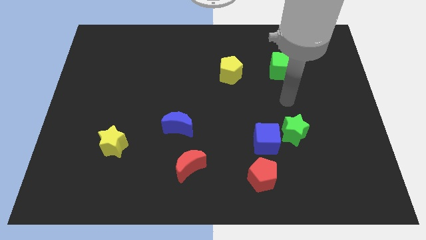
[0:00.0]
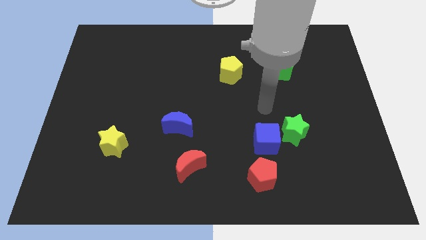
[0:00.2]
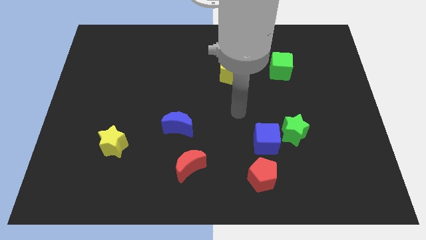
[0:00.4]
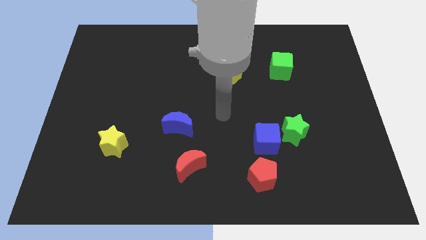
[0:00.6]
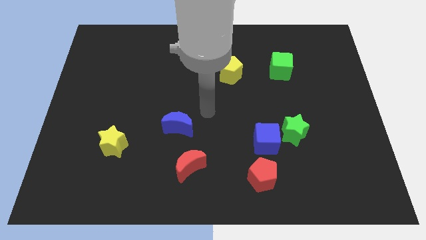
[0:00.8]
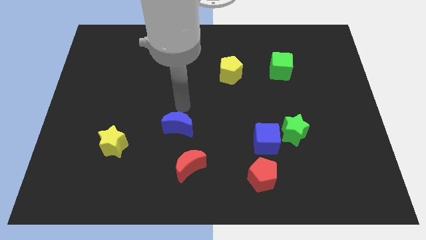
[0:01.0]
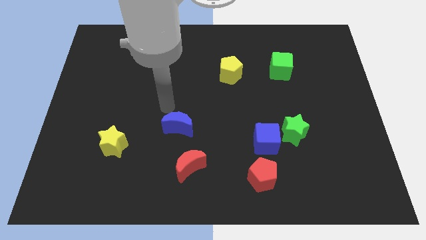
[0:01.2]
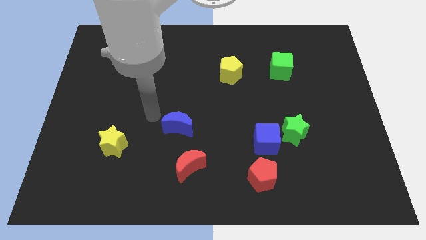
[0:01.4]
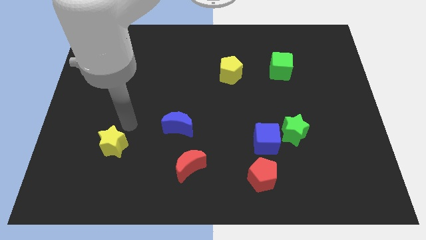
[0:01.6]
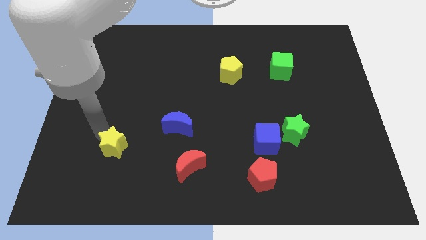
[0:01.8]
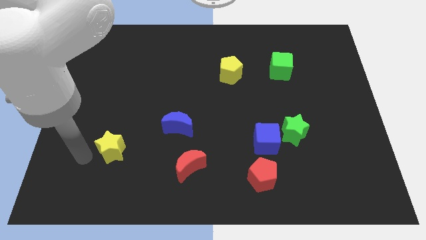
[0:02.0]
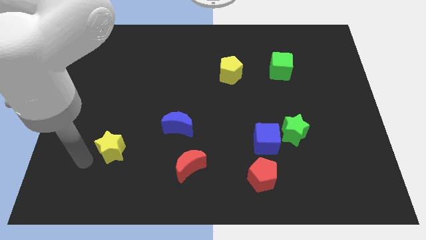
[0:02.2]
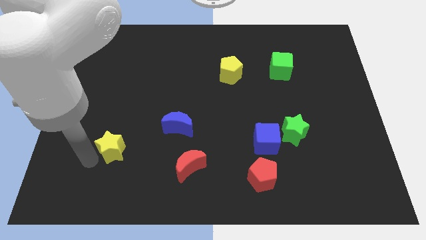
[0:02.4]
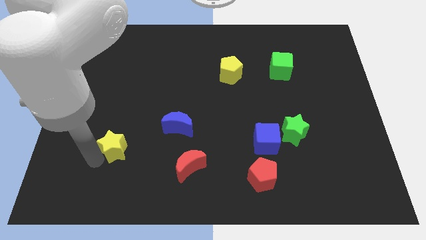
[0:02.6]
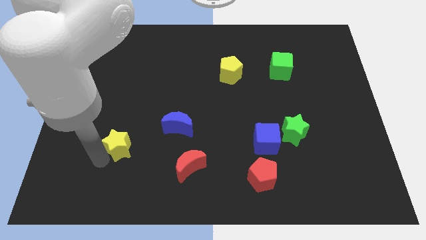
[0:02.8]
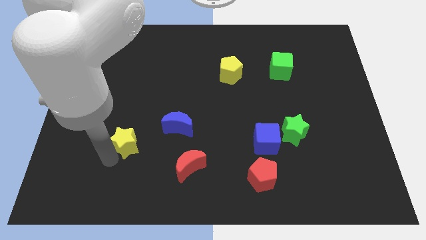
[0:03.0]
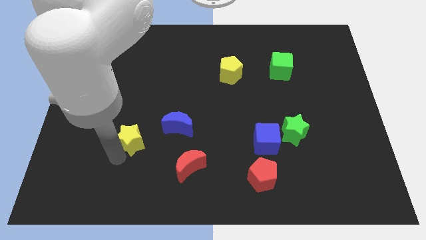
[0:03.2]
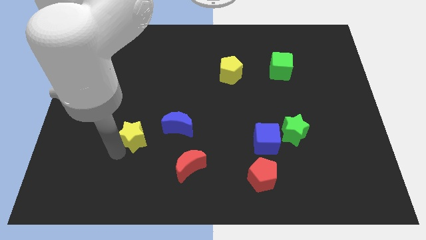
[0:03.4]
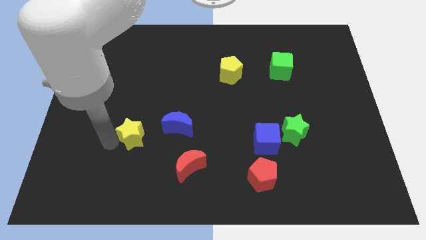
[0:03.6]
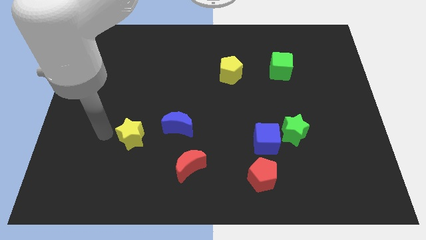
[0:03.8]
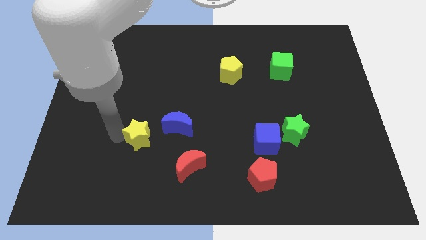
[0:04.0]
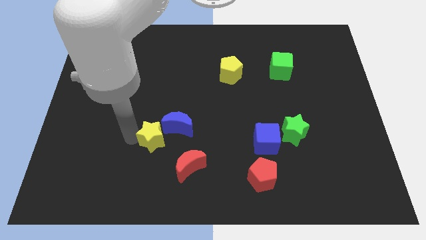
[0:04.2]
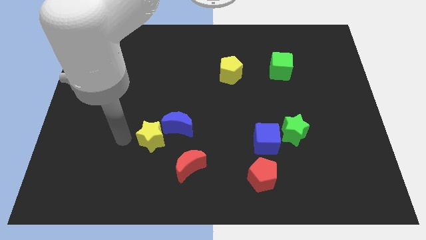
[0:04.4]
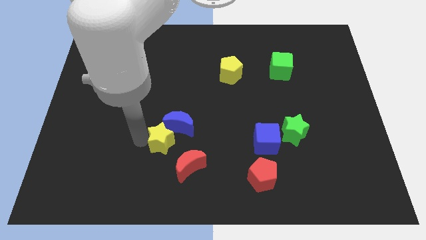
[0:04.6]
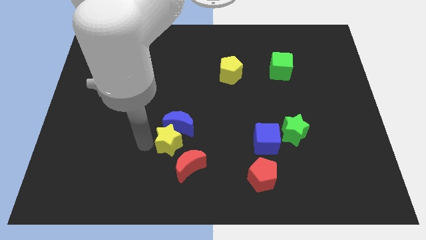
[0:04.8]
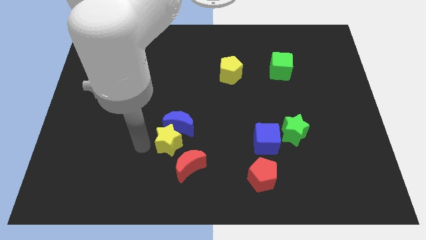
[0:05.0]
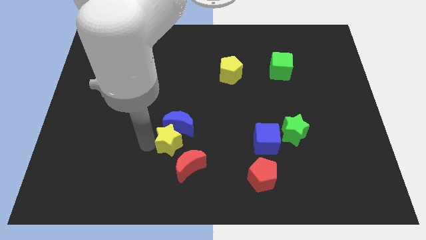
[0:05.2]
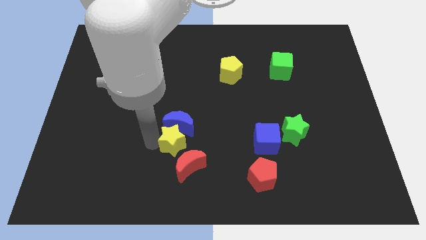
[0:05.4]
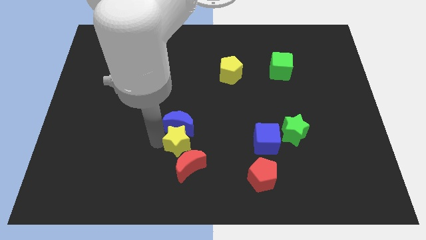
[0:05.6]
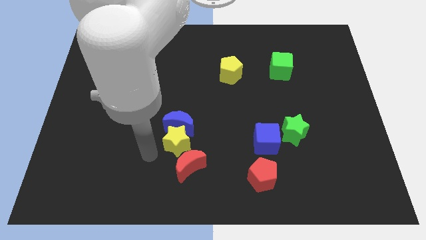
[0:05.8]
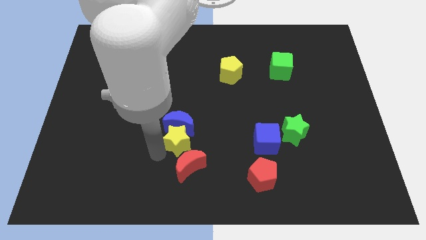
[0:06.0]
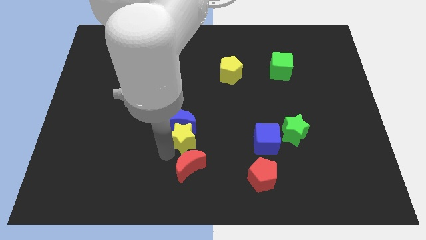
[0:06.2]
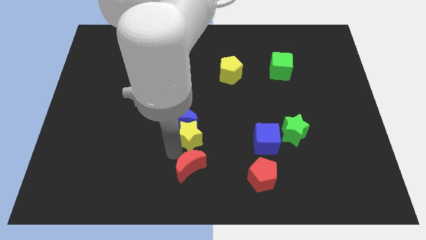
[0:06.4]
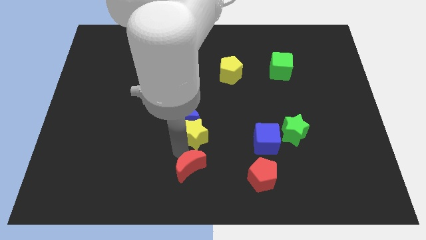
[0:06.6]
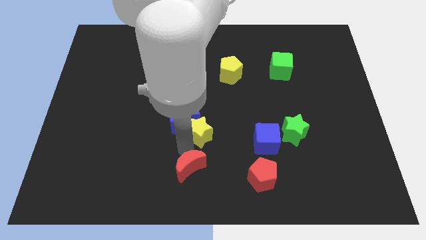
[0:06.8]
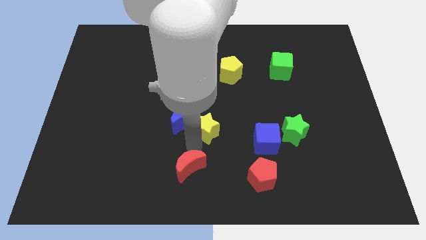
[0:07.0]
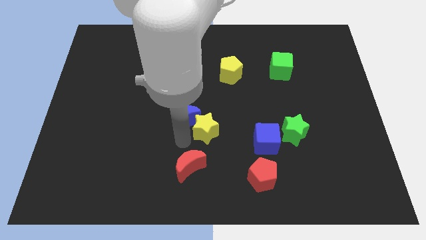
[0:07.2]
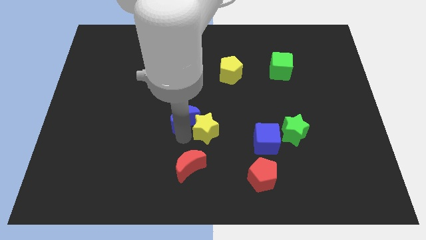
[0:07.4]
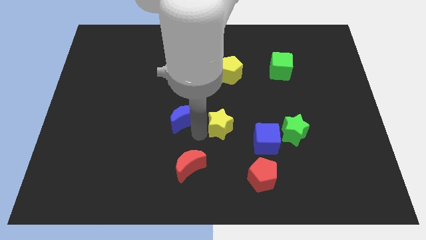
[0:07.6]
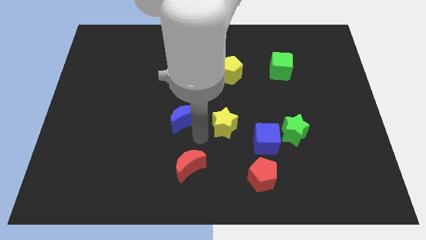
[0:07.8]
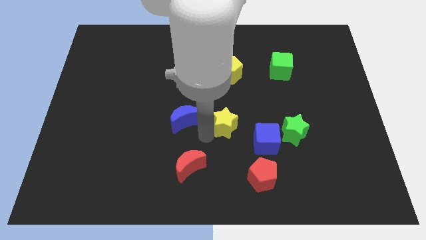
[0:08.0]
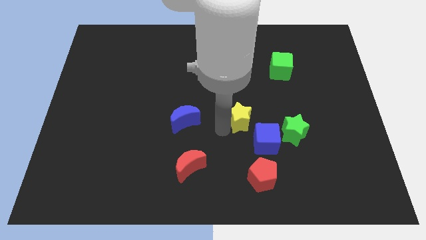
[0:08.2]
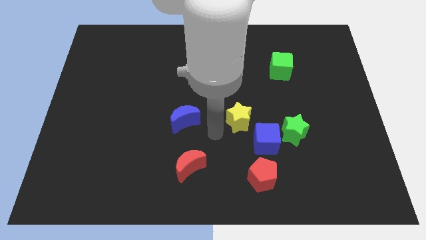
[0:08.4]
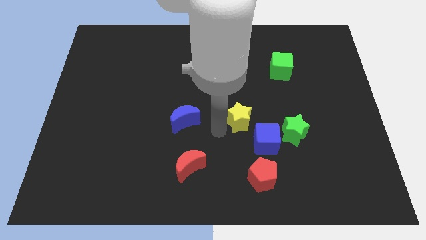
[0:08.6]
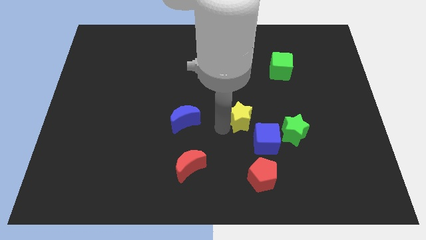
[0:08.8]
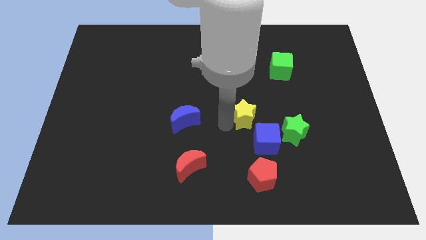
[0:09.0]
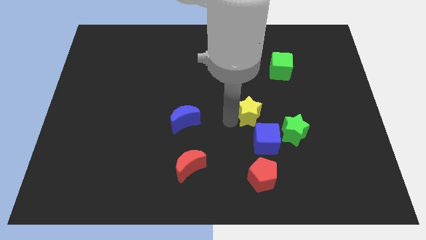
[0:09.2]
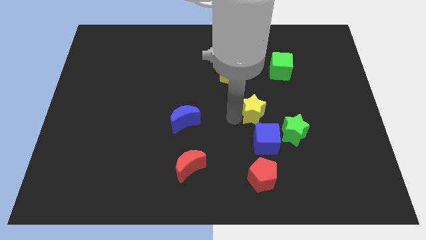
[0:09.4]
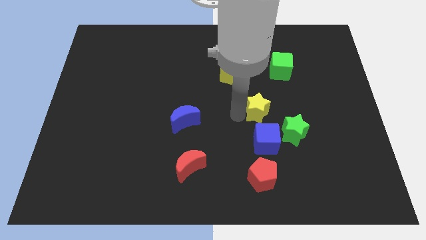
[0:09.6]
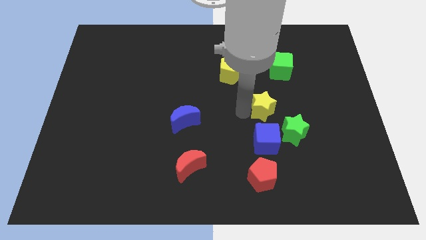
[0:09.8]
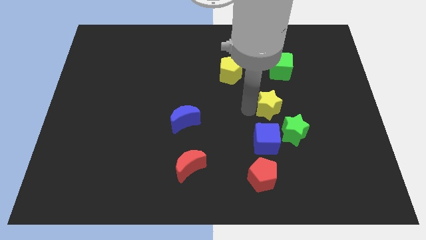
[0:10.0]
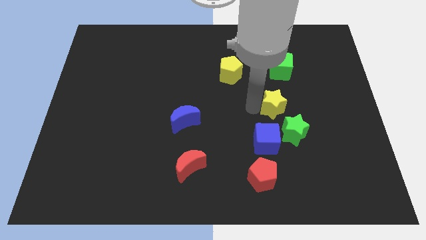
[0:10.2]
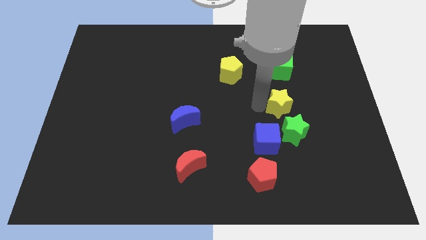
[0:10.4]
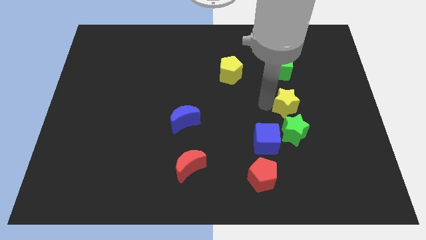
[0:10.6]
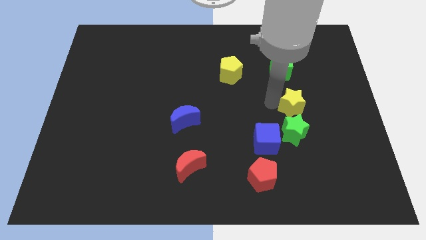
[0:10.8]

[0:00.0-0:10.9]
move the yellow star to the top right side of the green star

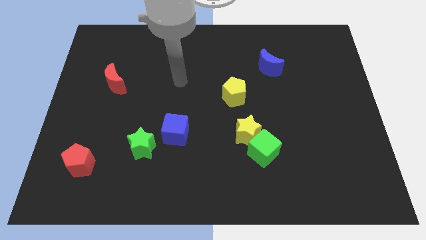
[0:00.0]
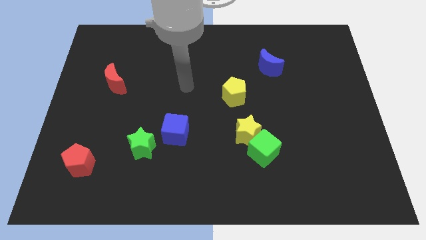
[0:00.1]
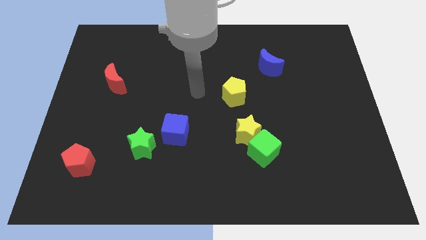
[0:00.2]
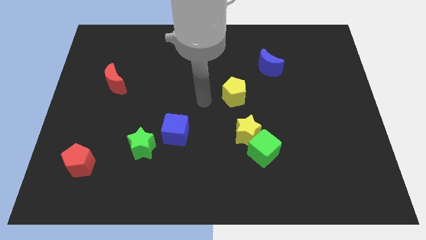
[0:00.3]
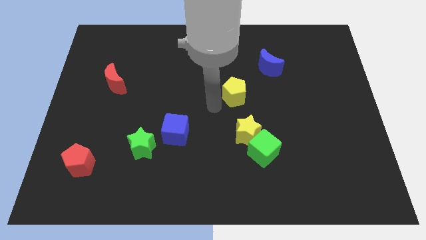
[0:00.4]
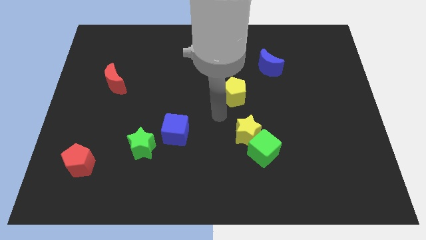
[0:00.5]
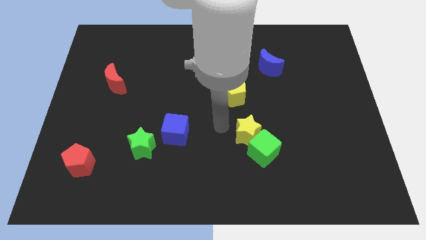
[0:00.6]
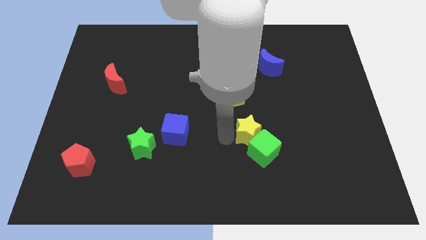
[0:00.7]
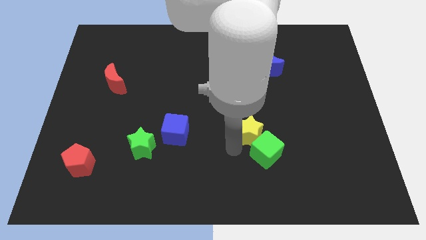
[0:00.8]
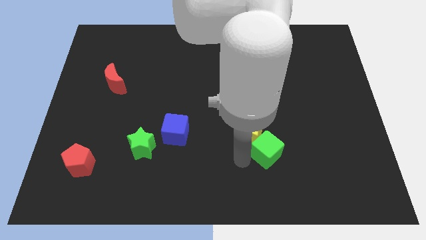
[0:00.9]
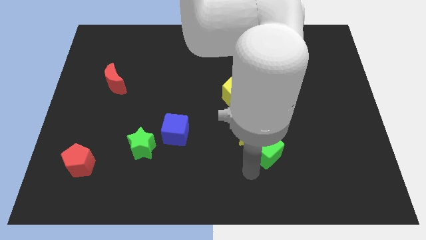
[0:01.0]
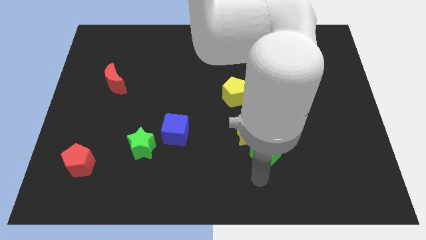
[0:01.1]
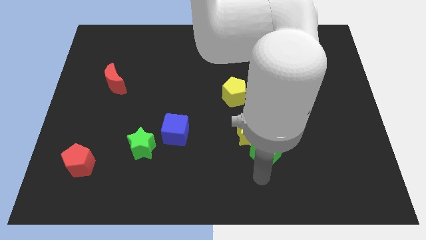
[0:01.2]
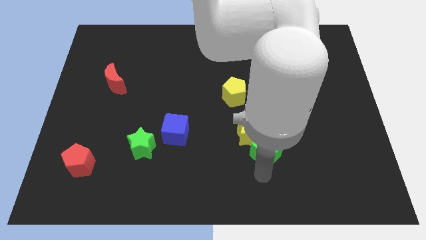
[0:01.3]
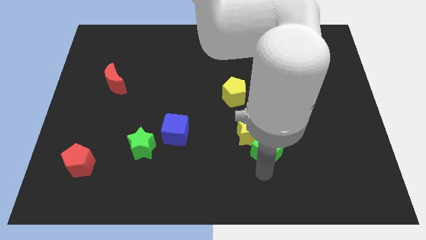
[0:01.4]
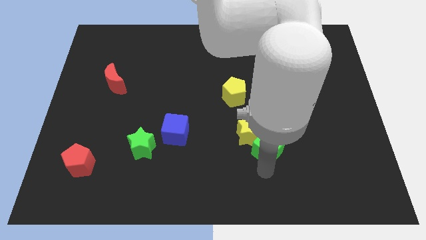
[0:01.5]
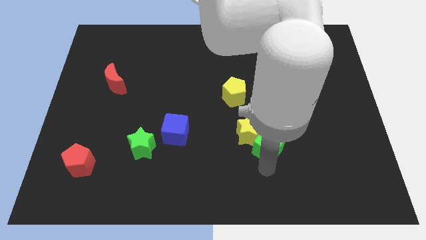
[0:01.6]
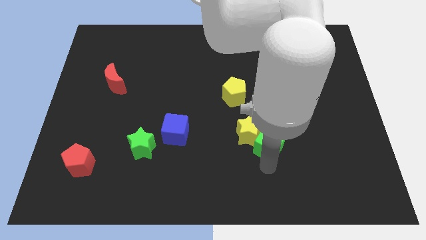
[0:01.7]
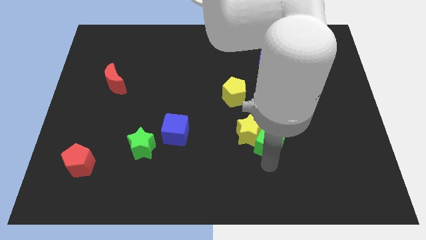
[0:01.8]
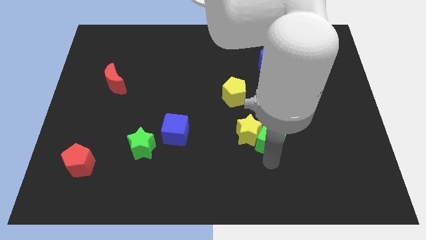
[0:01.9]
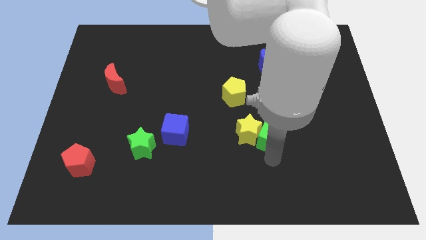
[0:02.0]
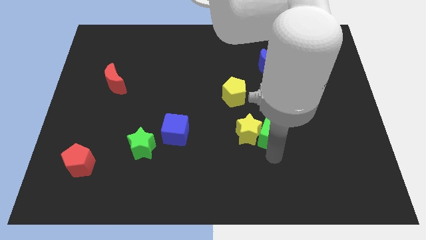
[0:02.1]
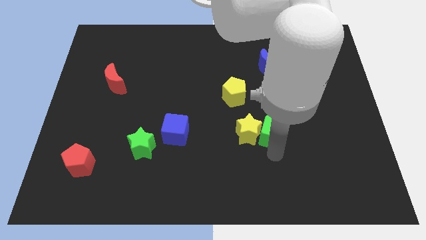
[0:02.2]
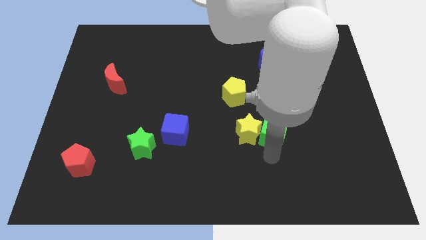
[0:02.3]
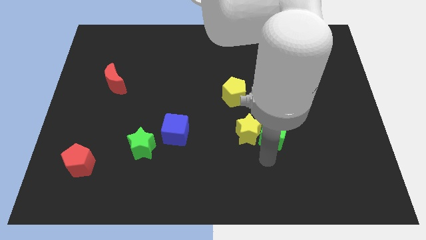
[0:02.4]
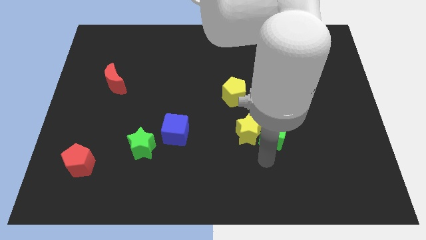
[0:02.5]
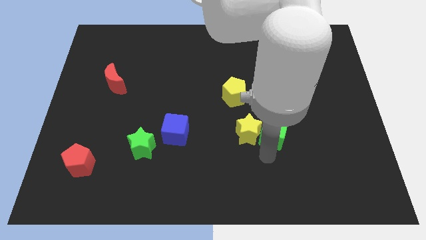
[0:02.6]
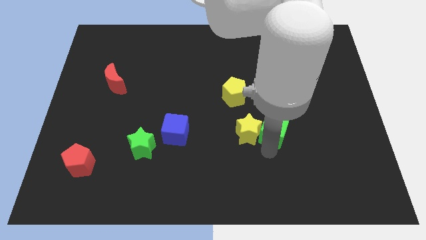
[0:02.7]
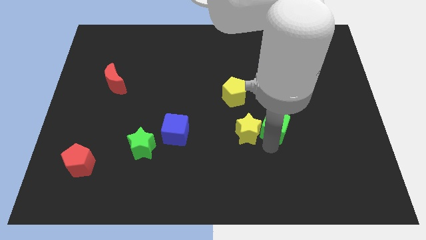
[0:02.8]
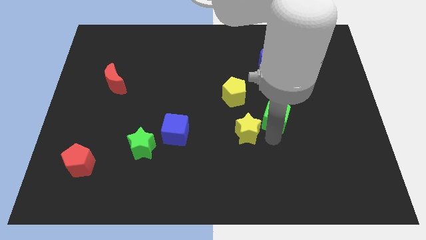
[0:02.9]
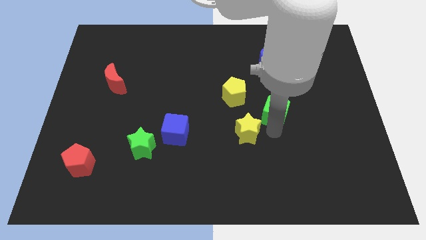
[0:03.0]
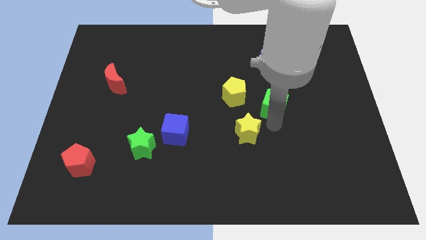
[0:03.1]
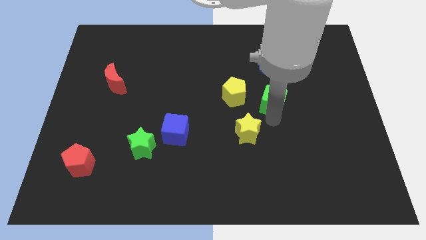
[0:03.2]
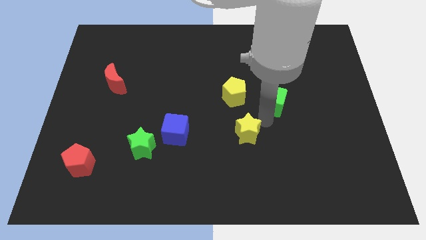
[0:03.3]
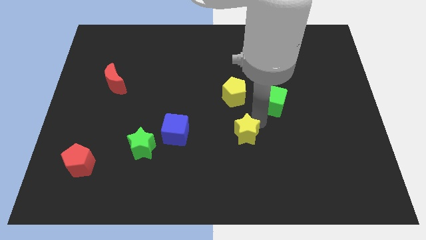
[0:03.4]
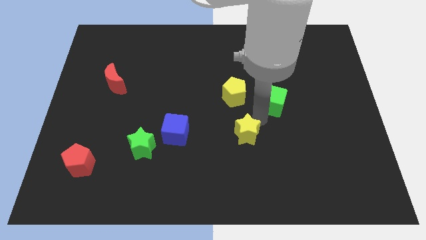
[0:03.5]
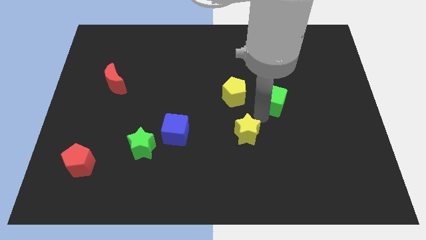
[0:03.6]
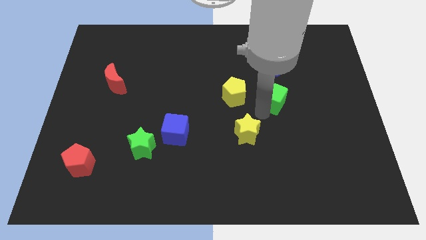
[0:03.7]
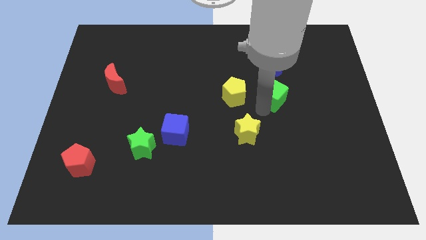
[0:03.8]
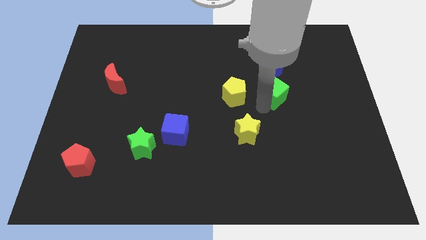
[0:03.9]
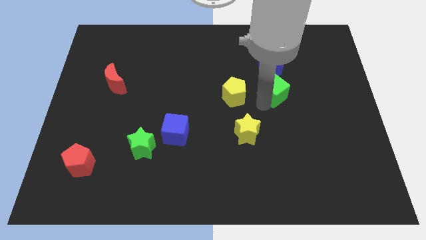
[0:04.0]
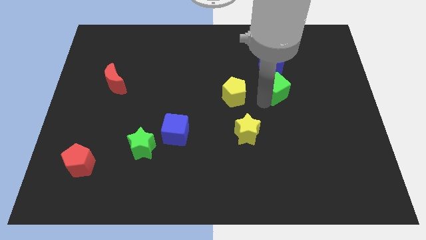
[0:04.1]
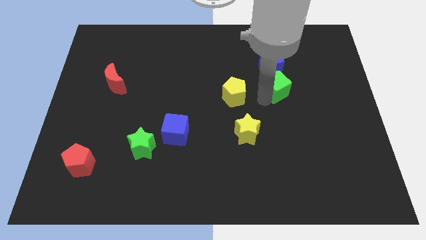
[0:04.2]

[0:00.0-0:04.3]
move the green cube to the bottom right of the blue moon
